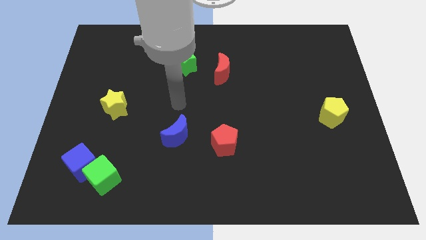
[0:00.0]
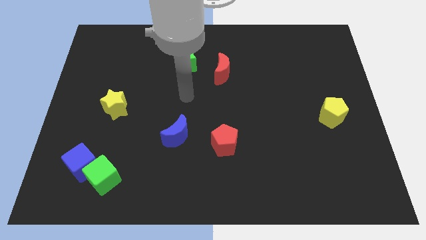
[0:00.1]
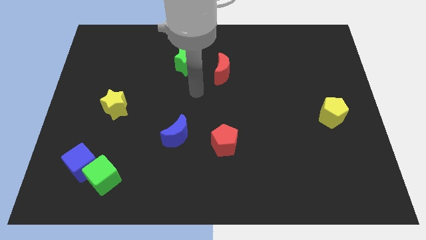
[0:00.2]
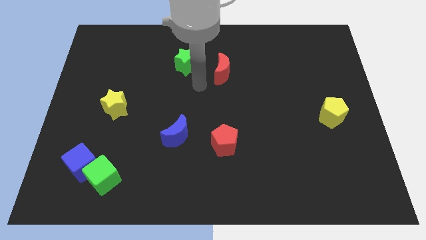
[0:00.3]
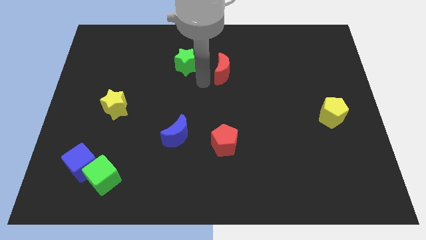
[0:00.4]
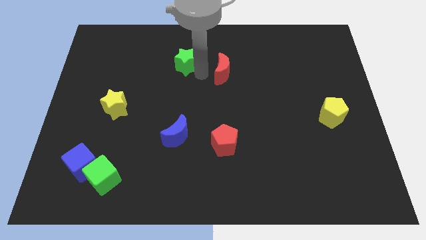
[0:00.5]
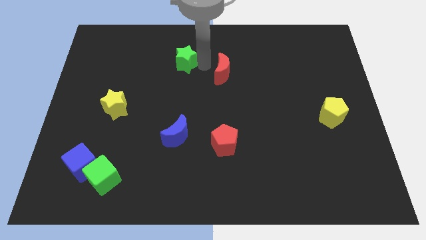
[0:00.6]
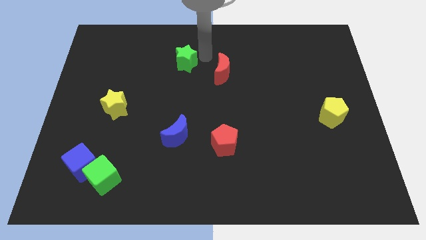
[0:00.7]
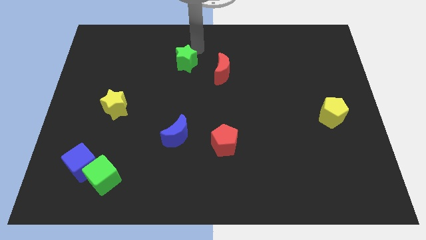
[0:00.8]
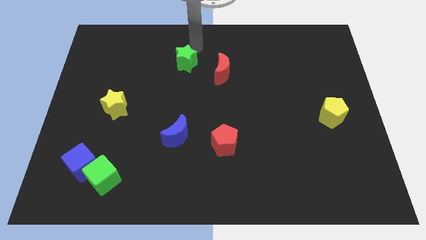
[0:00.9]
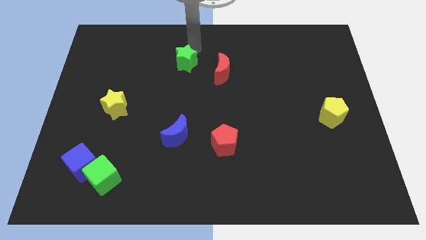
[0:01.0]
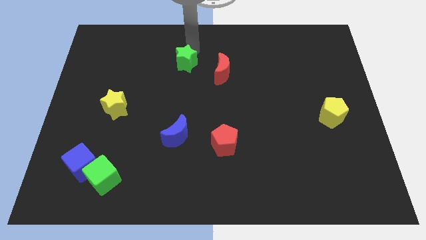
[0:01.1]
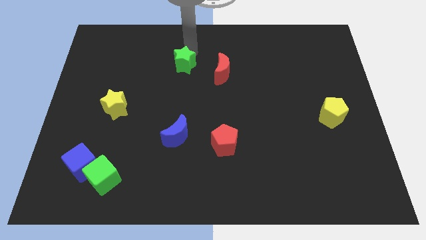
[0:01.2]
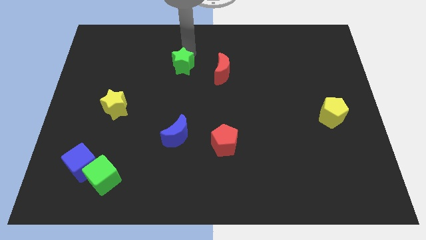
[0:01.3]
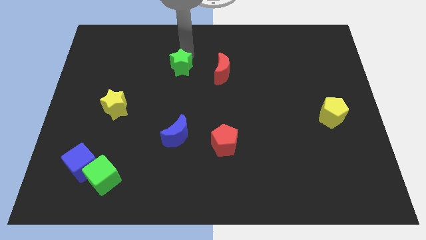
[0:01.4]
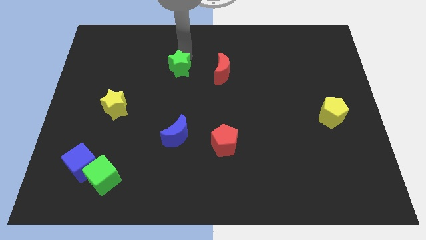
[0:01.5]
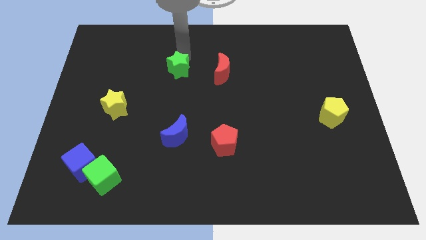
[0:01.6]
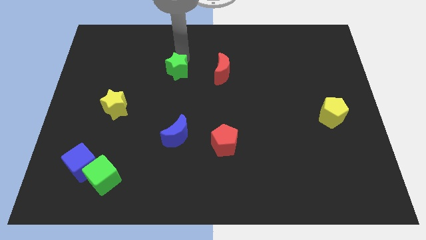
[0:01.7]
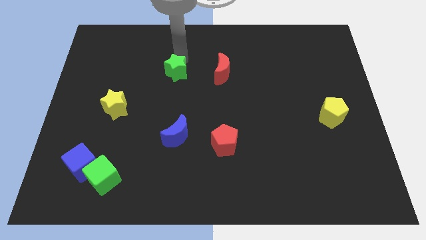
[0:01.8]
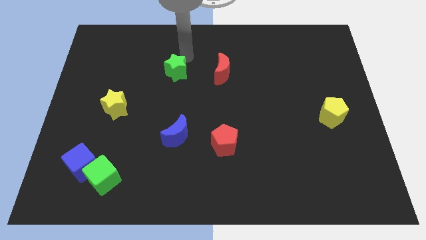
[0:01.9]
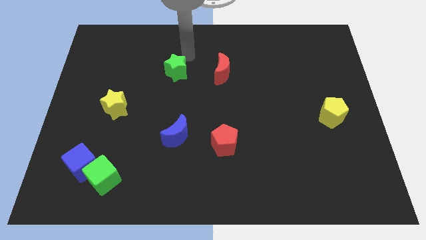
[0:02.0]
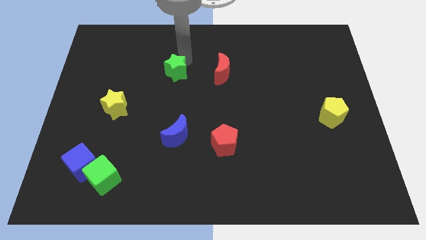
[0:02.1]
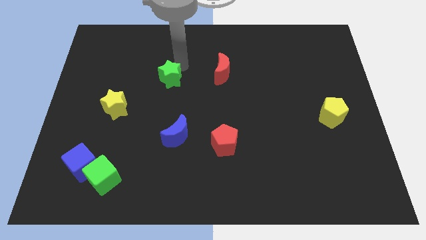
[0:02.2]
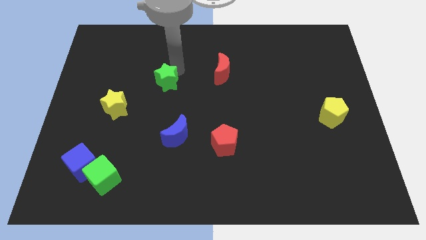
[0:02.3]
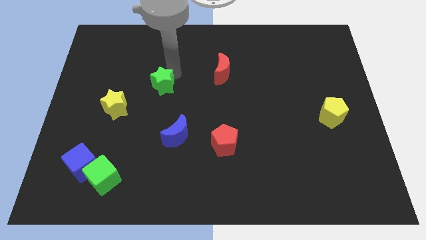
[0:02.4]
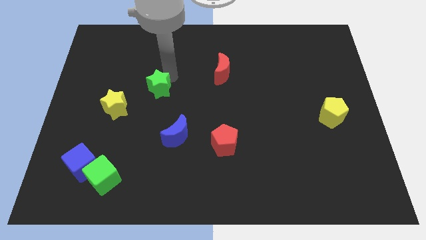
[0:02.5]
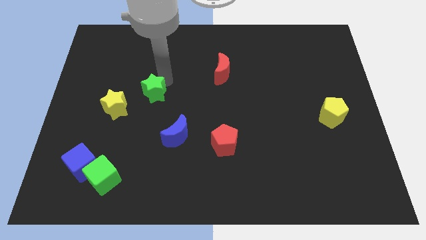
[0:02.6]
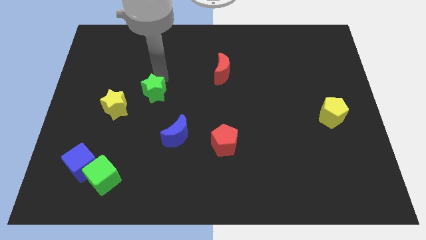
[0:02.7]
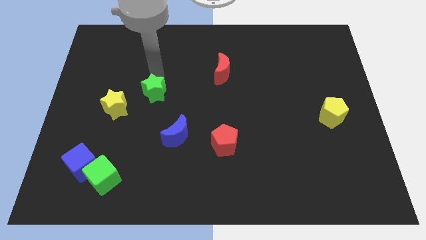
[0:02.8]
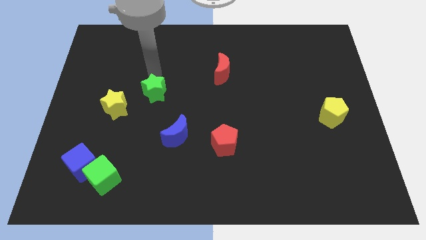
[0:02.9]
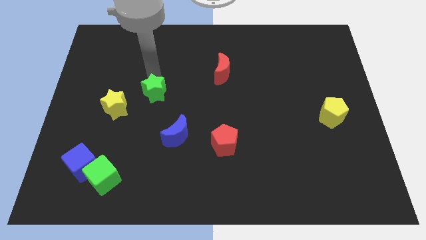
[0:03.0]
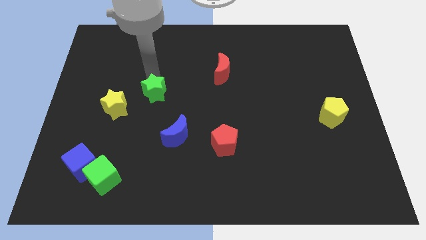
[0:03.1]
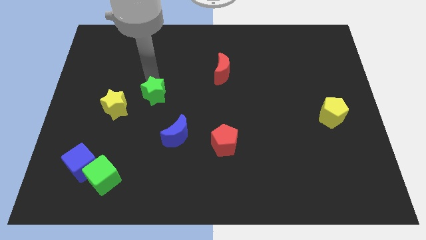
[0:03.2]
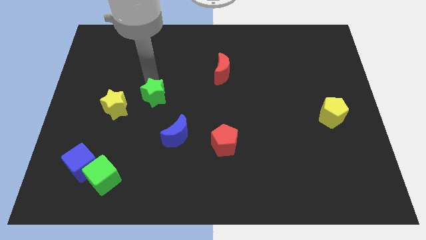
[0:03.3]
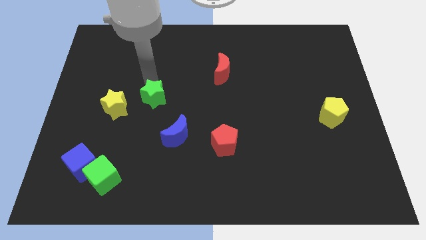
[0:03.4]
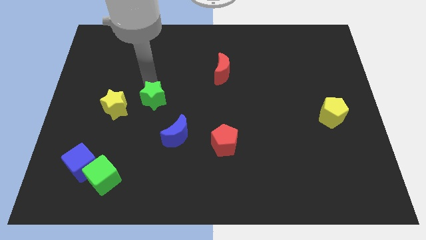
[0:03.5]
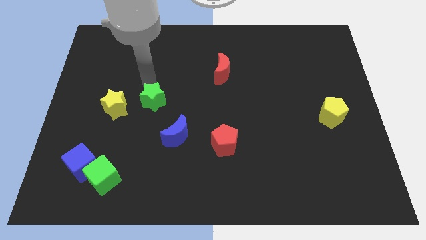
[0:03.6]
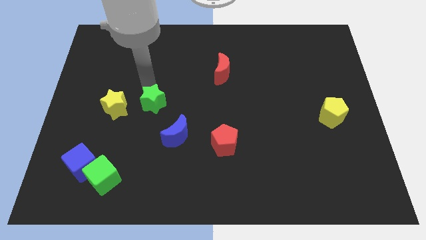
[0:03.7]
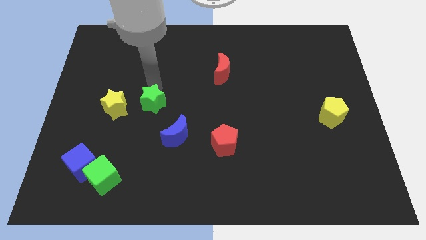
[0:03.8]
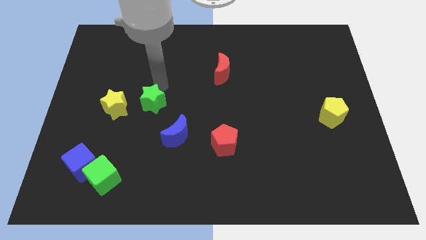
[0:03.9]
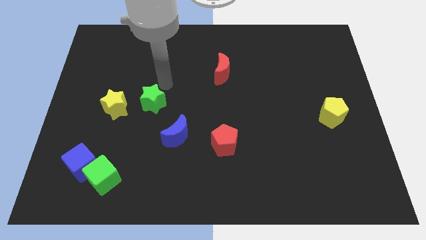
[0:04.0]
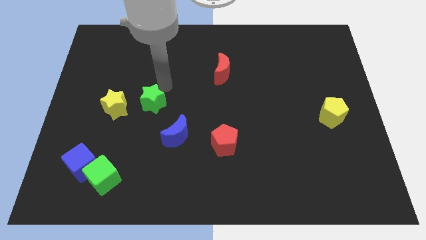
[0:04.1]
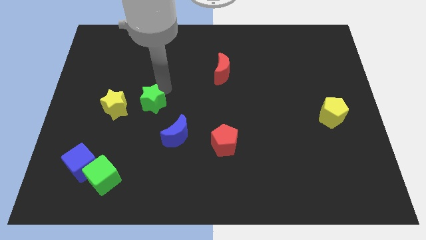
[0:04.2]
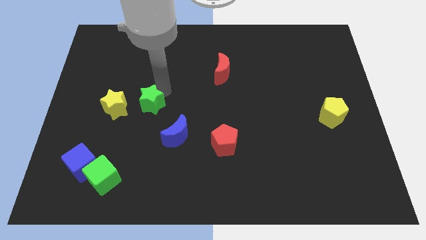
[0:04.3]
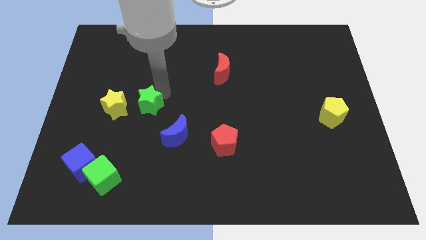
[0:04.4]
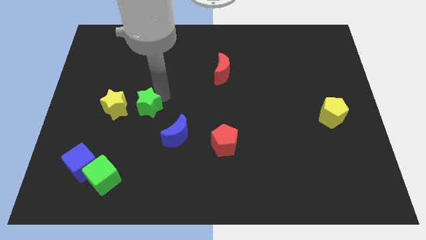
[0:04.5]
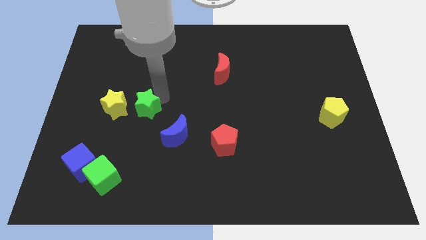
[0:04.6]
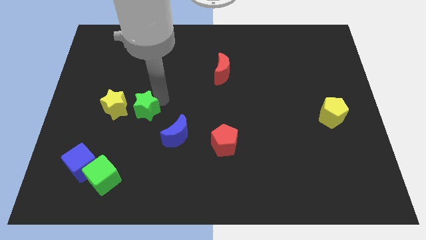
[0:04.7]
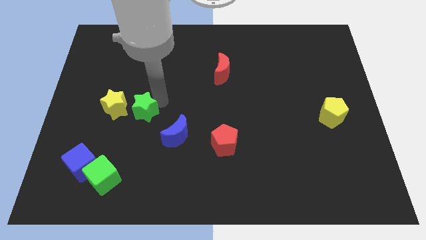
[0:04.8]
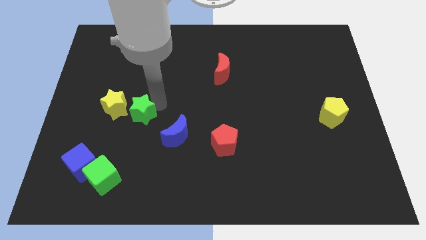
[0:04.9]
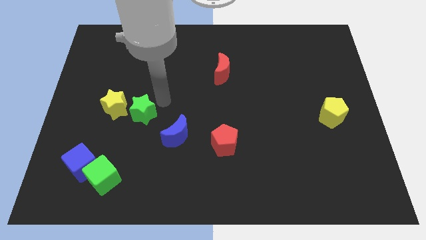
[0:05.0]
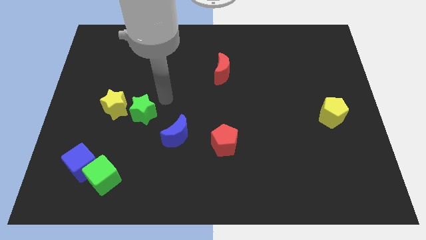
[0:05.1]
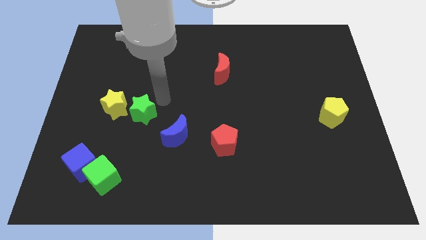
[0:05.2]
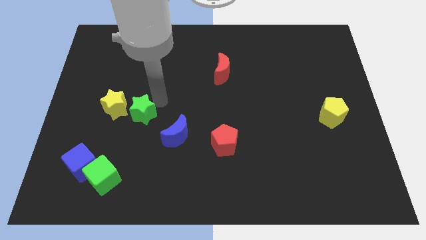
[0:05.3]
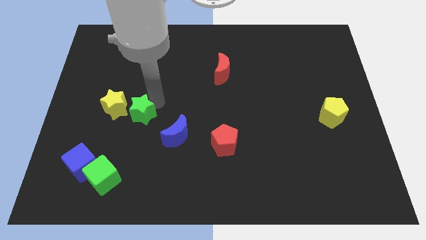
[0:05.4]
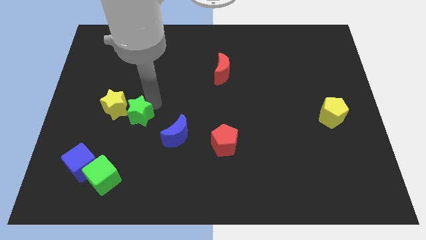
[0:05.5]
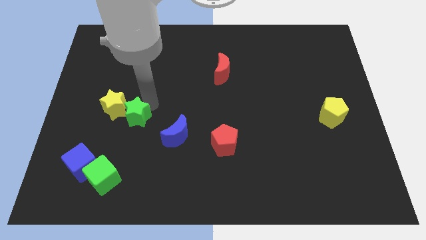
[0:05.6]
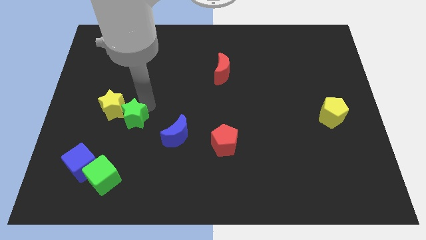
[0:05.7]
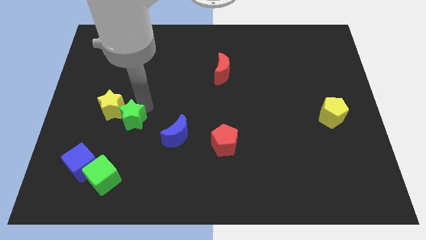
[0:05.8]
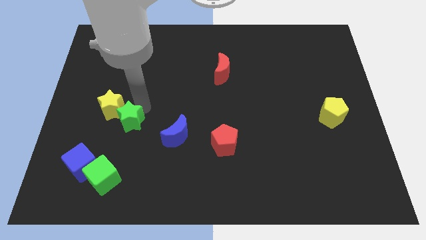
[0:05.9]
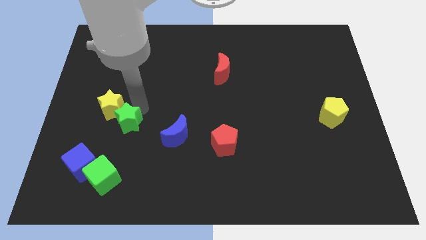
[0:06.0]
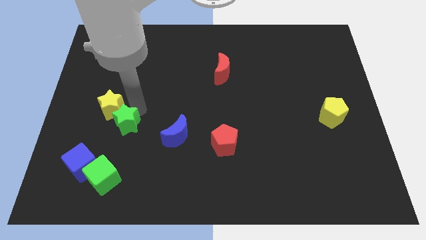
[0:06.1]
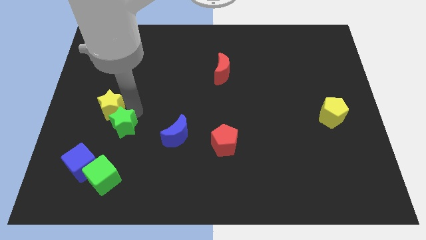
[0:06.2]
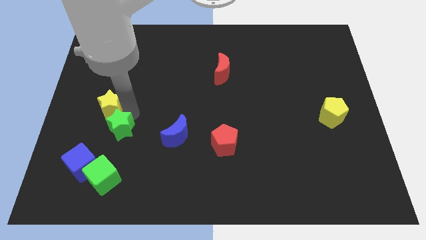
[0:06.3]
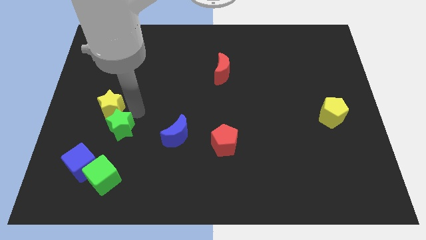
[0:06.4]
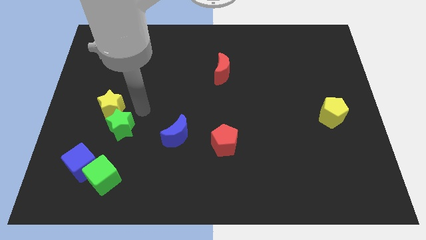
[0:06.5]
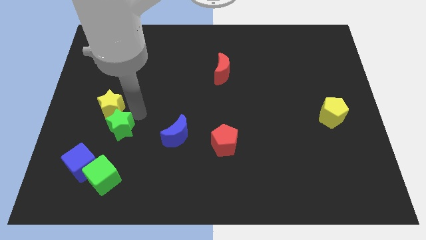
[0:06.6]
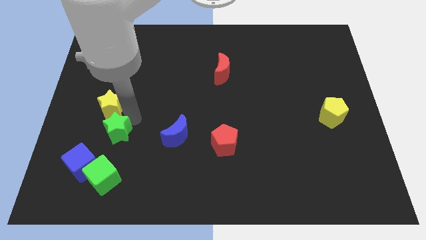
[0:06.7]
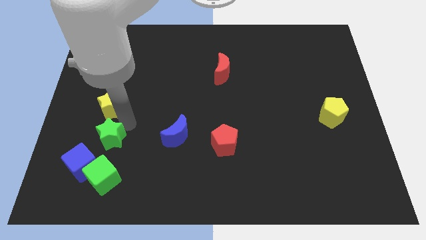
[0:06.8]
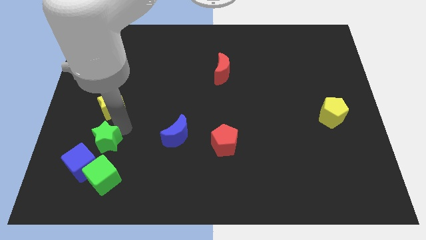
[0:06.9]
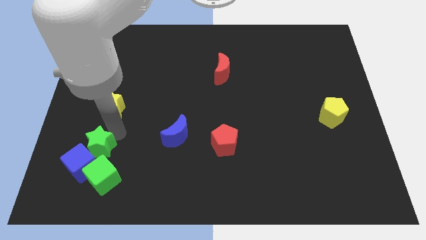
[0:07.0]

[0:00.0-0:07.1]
move the green star to the blue cube

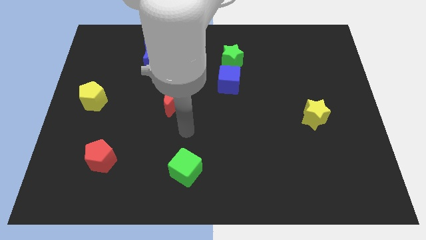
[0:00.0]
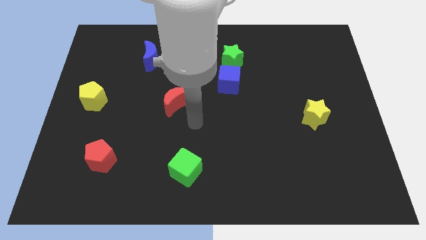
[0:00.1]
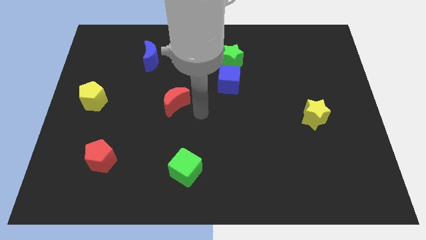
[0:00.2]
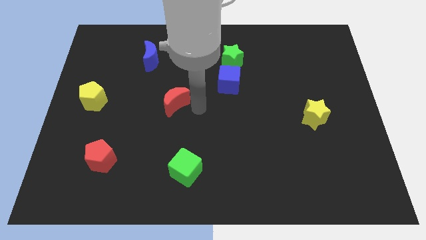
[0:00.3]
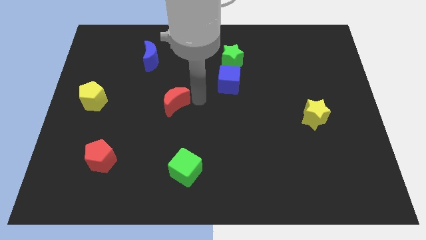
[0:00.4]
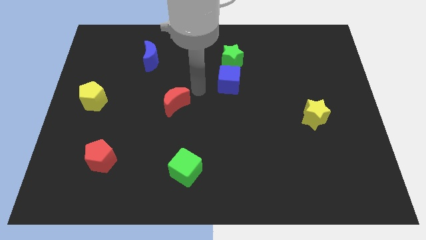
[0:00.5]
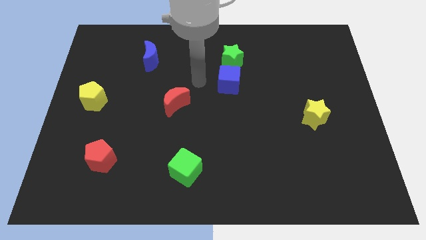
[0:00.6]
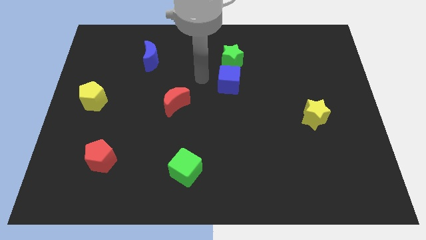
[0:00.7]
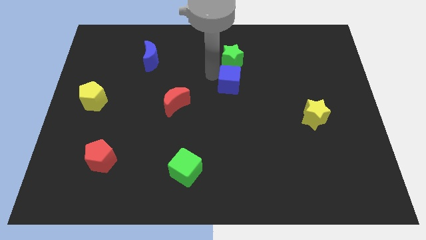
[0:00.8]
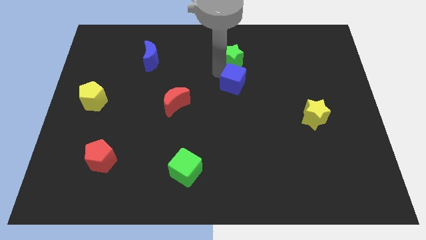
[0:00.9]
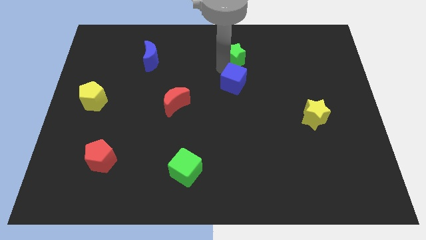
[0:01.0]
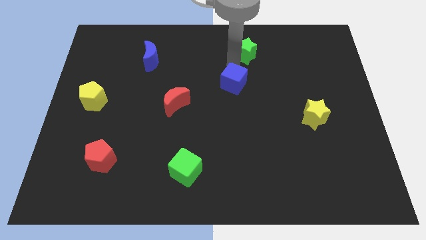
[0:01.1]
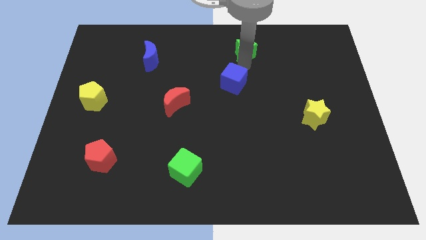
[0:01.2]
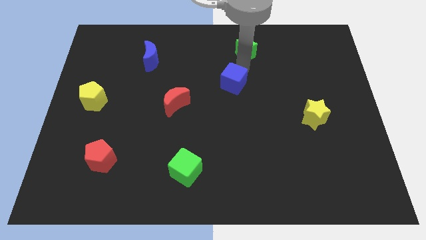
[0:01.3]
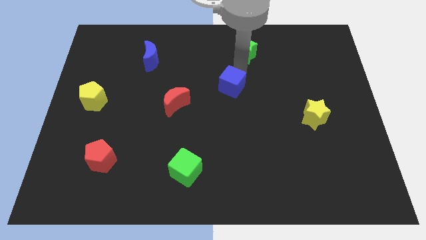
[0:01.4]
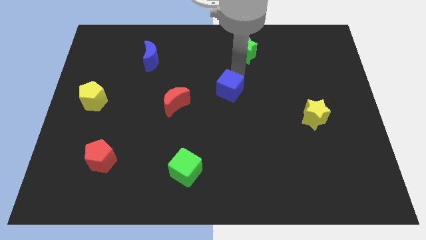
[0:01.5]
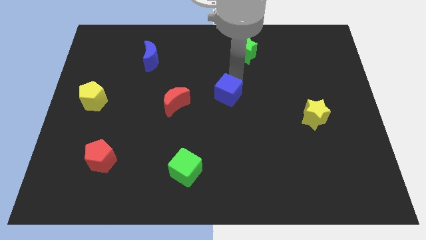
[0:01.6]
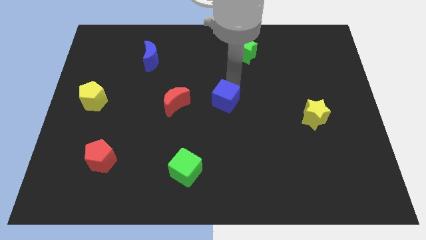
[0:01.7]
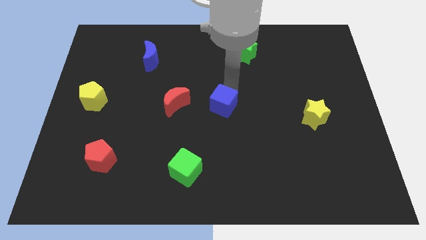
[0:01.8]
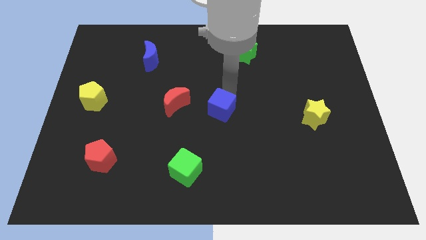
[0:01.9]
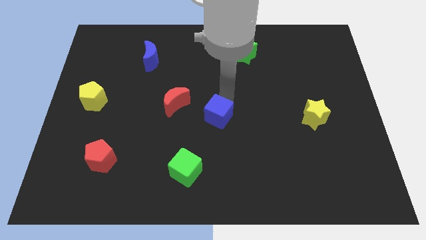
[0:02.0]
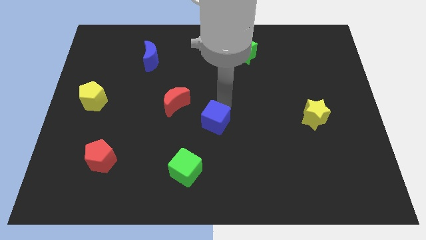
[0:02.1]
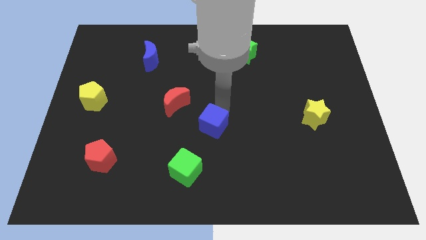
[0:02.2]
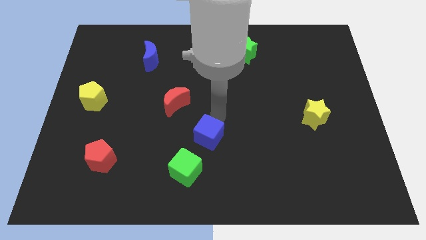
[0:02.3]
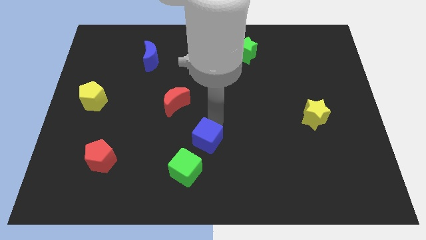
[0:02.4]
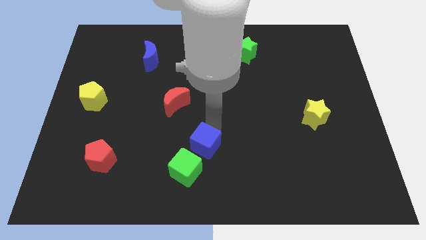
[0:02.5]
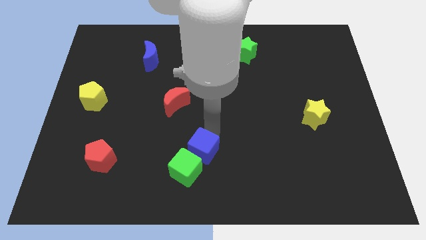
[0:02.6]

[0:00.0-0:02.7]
move the blue cube next to the green cube
